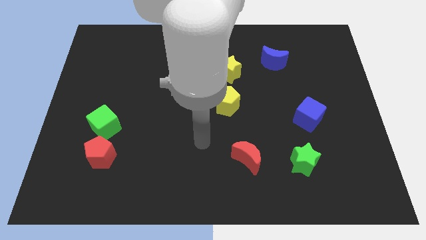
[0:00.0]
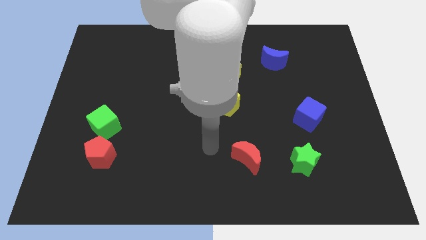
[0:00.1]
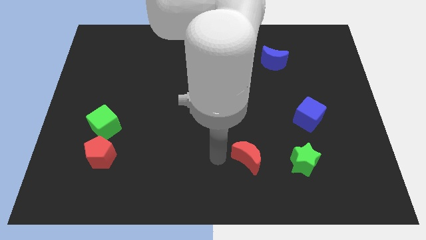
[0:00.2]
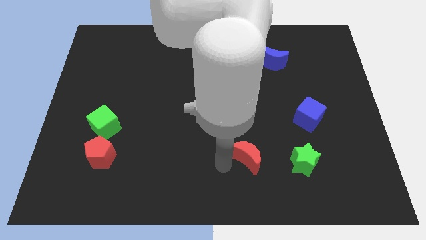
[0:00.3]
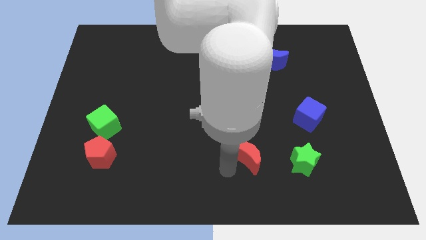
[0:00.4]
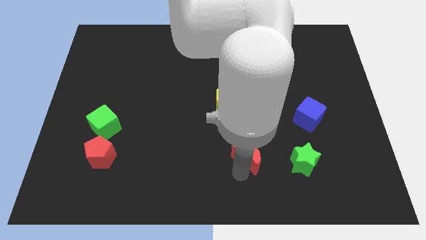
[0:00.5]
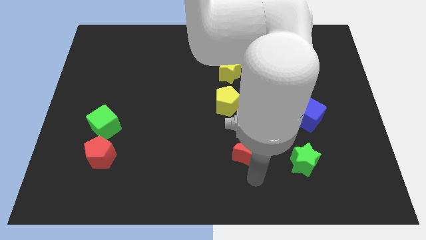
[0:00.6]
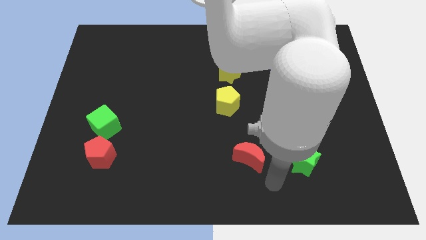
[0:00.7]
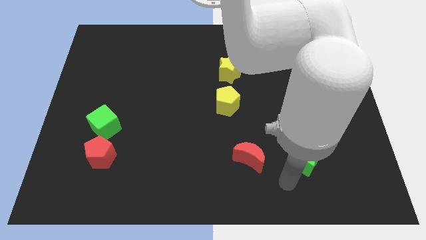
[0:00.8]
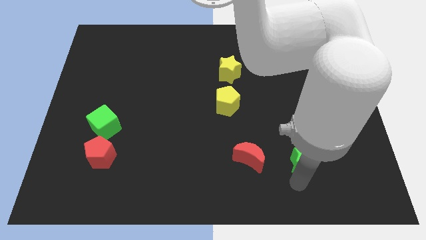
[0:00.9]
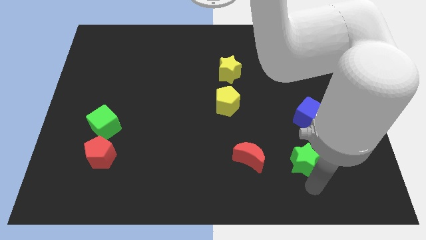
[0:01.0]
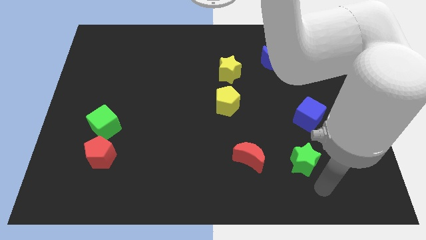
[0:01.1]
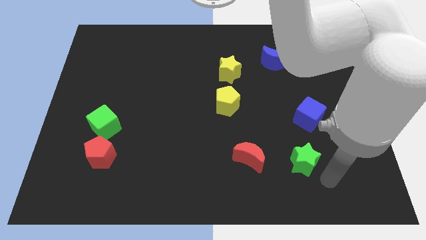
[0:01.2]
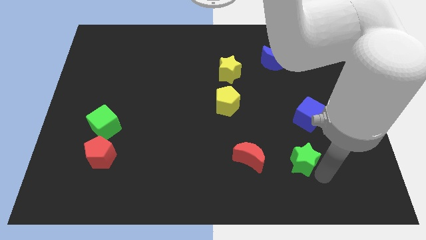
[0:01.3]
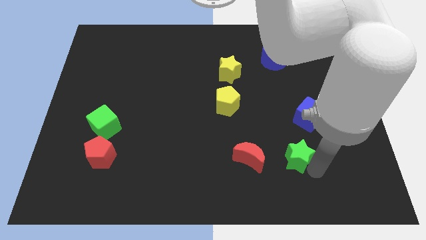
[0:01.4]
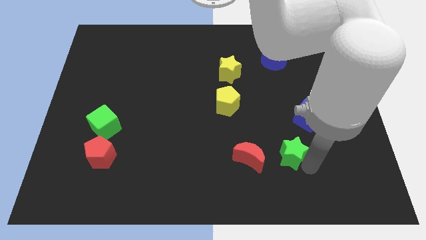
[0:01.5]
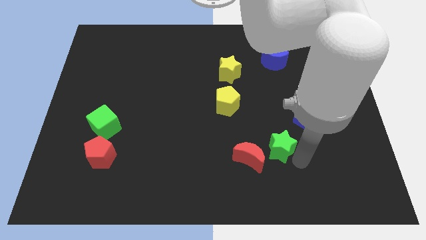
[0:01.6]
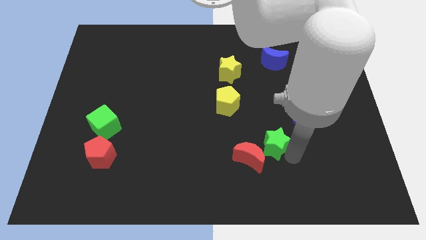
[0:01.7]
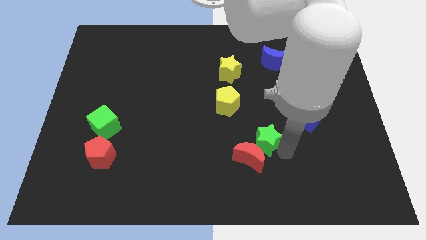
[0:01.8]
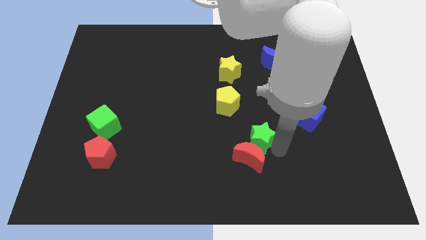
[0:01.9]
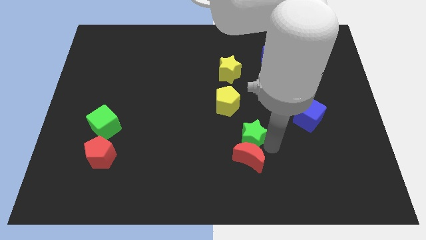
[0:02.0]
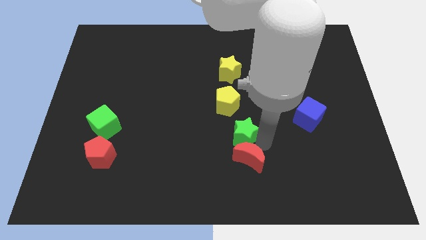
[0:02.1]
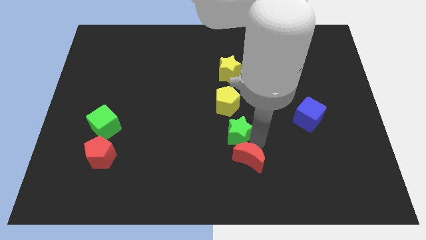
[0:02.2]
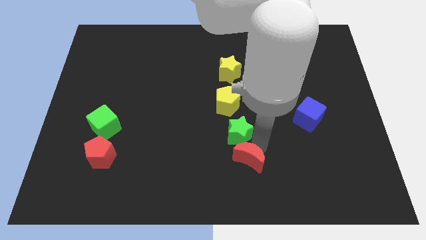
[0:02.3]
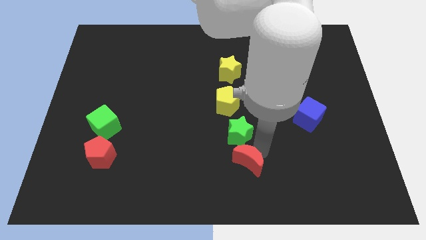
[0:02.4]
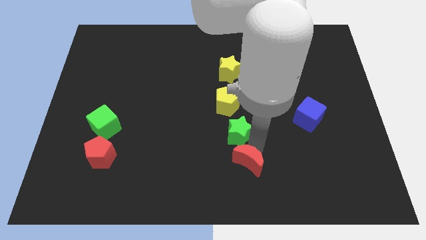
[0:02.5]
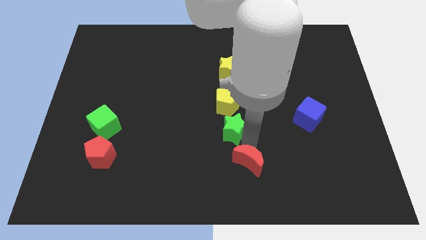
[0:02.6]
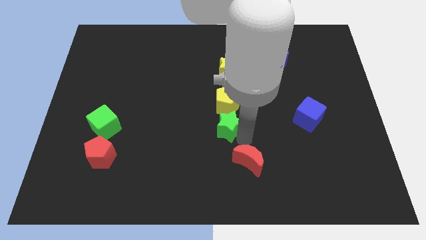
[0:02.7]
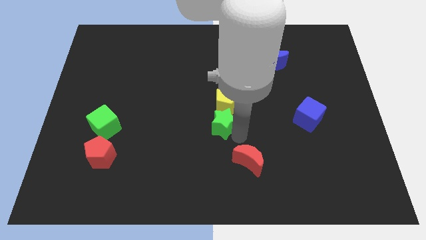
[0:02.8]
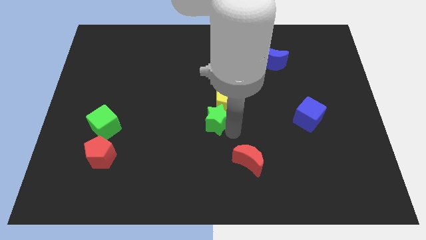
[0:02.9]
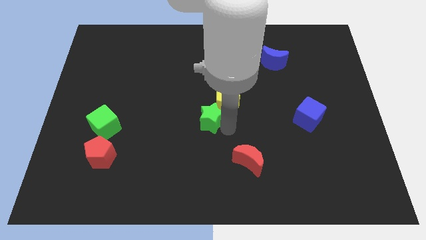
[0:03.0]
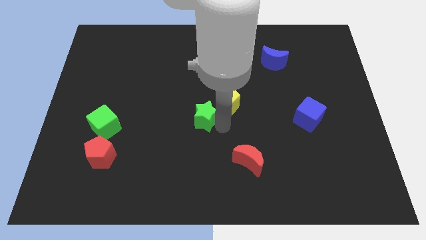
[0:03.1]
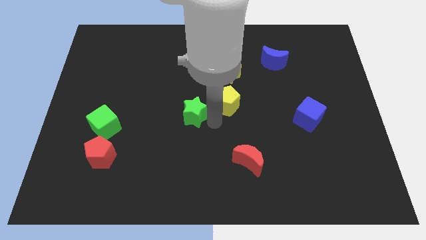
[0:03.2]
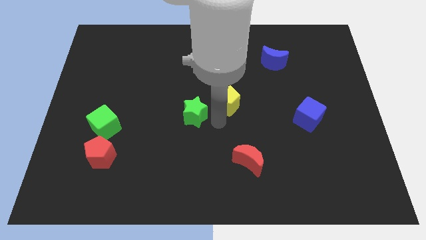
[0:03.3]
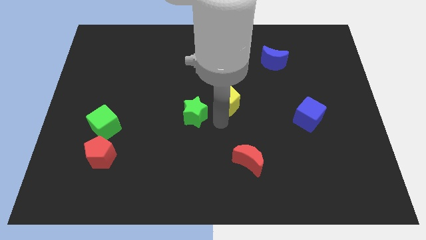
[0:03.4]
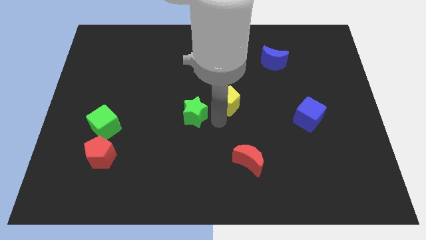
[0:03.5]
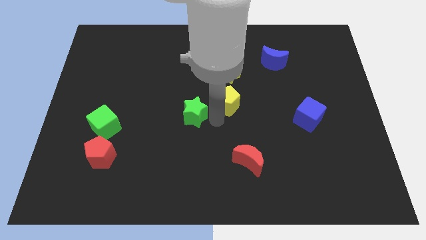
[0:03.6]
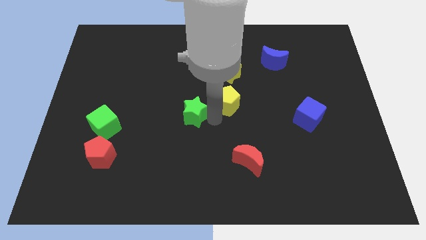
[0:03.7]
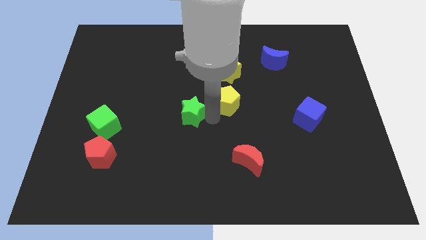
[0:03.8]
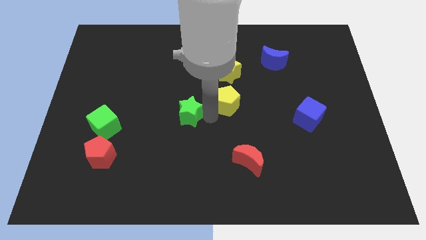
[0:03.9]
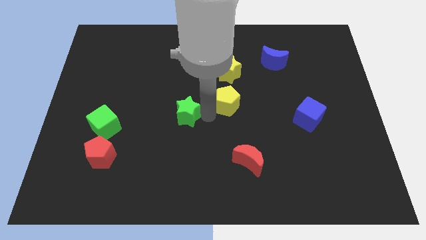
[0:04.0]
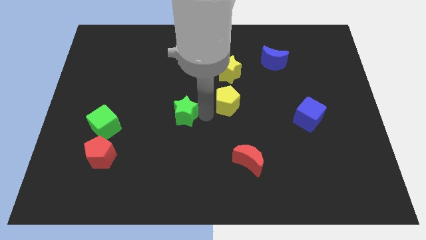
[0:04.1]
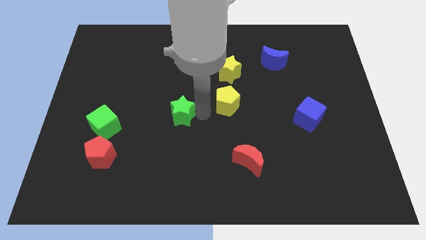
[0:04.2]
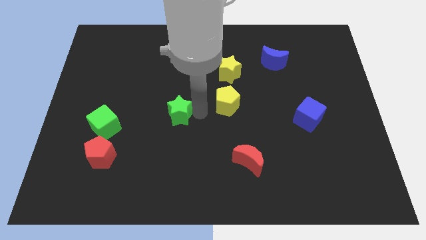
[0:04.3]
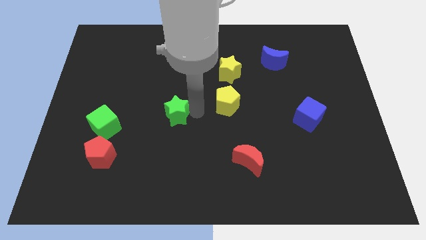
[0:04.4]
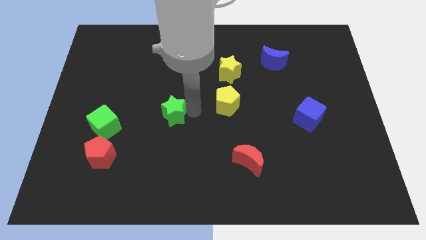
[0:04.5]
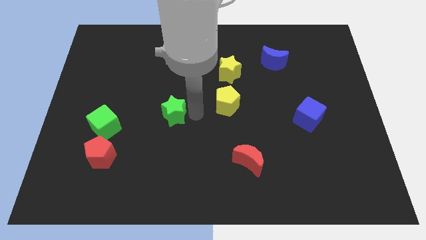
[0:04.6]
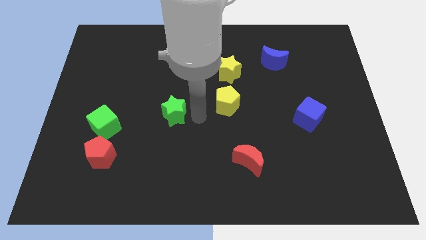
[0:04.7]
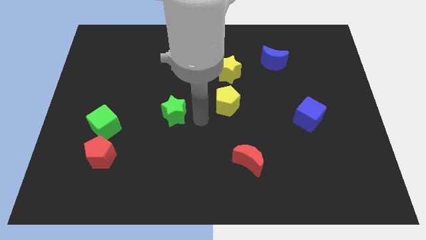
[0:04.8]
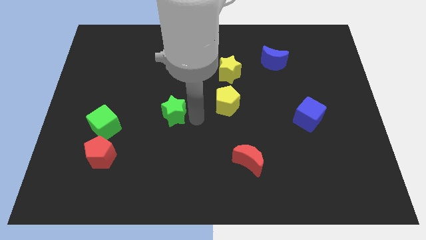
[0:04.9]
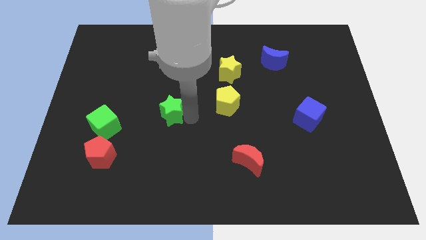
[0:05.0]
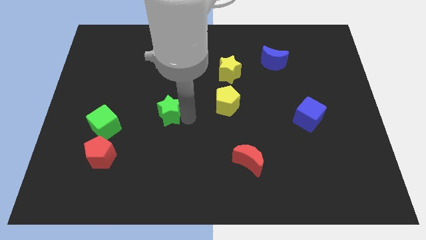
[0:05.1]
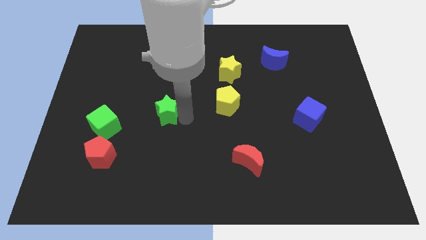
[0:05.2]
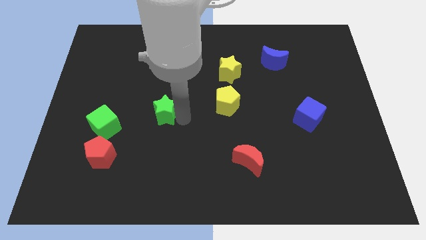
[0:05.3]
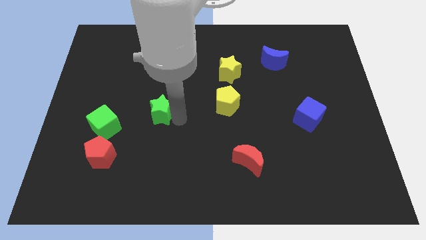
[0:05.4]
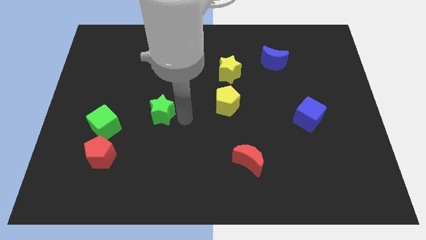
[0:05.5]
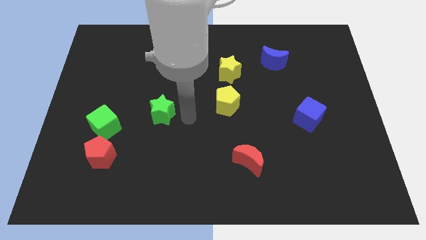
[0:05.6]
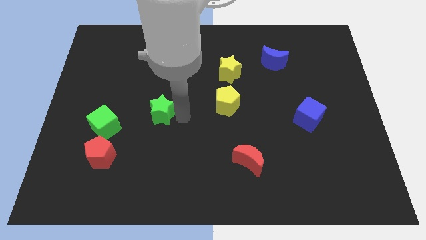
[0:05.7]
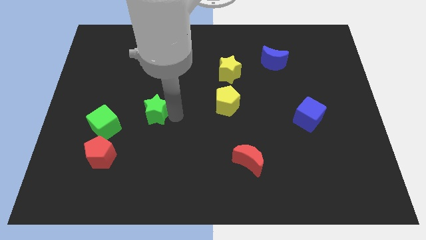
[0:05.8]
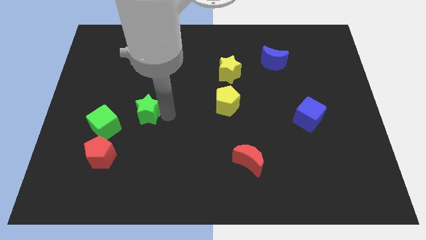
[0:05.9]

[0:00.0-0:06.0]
push the green star to the top right of the green cube

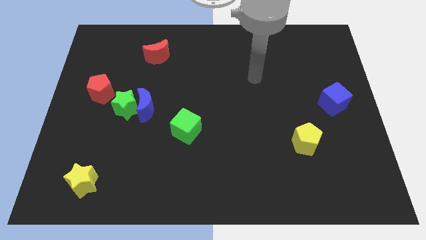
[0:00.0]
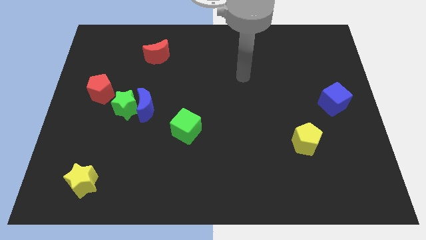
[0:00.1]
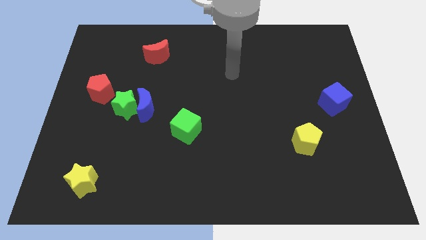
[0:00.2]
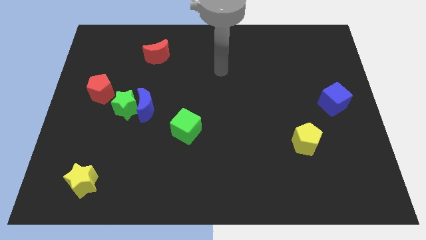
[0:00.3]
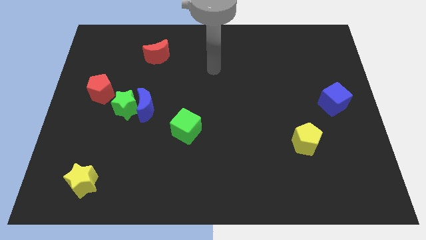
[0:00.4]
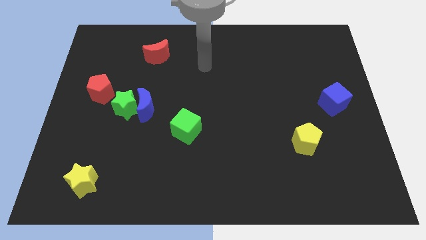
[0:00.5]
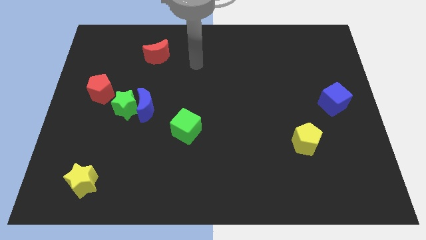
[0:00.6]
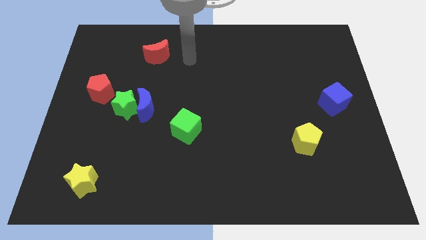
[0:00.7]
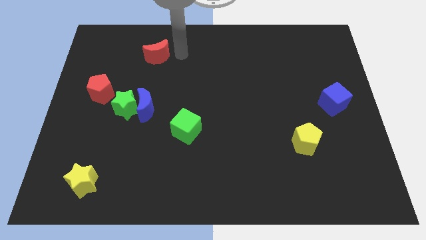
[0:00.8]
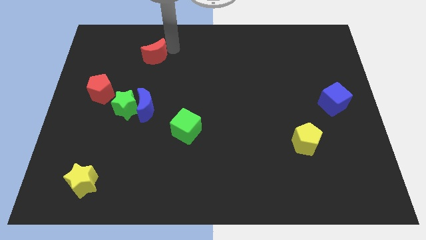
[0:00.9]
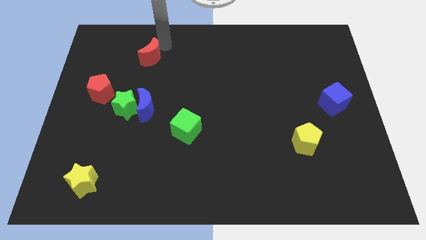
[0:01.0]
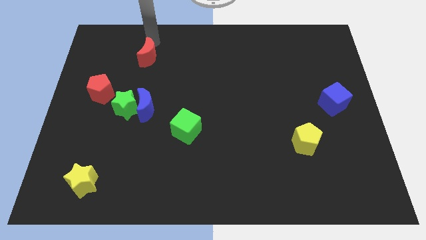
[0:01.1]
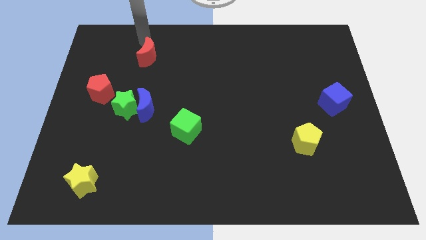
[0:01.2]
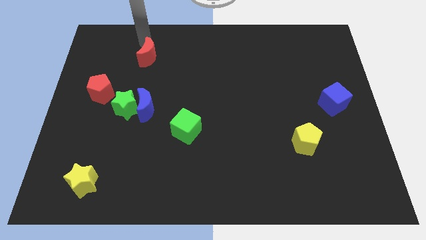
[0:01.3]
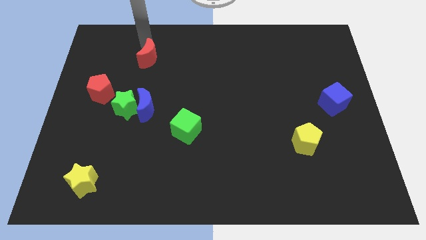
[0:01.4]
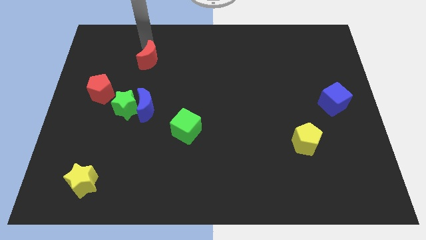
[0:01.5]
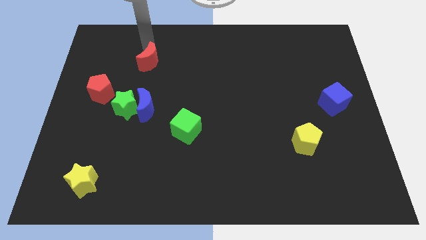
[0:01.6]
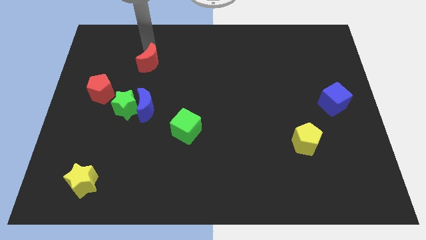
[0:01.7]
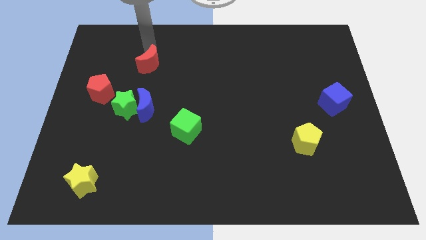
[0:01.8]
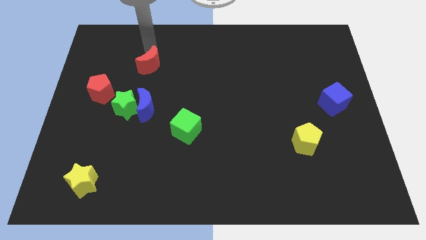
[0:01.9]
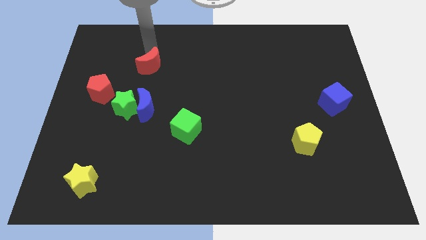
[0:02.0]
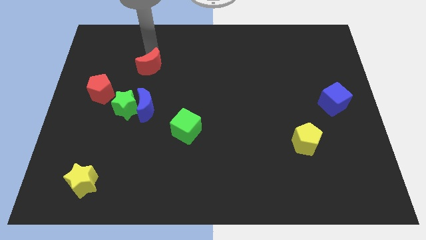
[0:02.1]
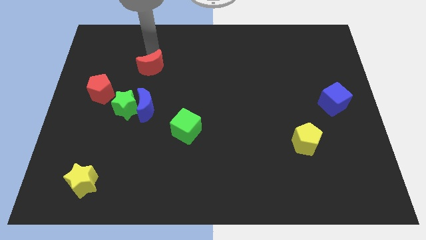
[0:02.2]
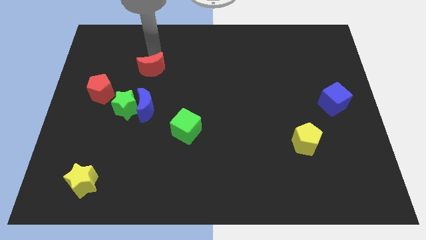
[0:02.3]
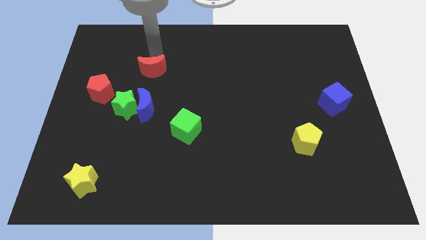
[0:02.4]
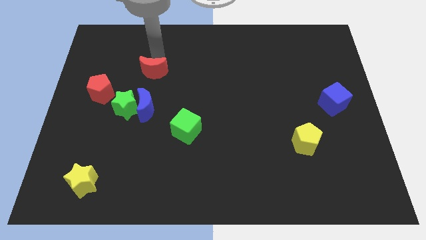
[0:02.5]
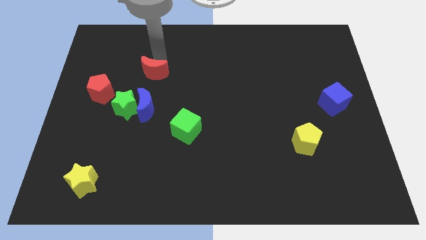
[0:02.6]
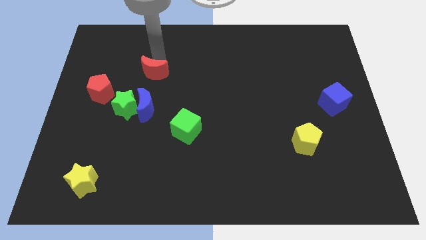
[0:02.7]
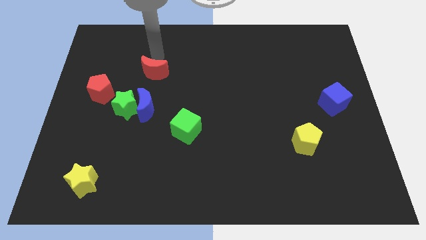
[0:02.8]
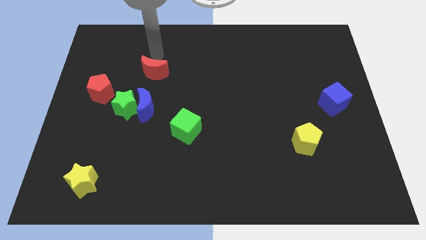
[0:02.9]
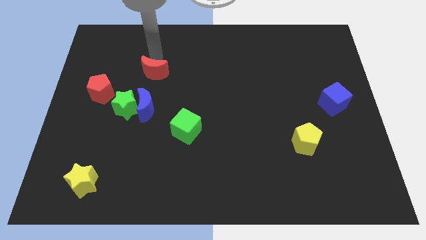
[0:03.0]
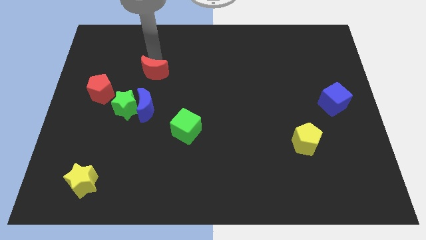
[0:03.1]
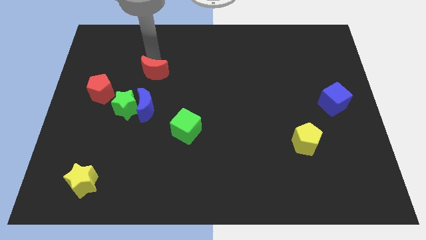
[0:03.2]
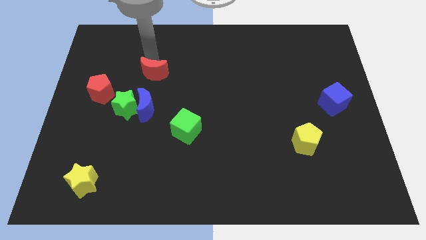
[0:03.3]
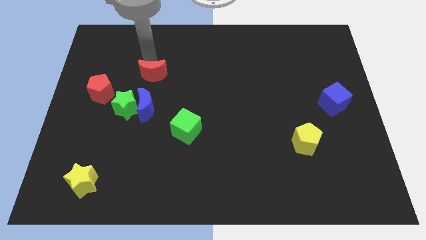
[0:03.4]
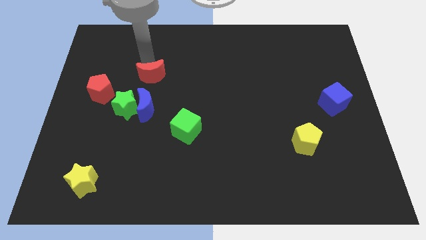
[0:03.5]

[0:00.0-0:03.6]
put the red moon diagonally up and to the right of the green star
